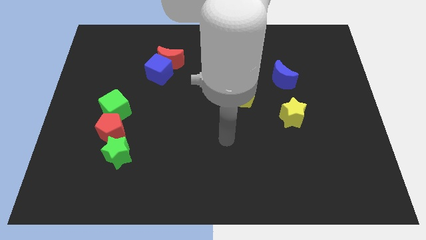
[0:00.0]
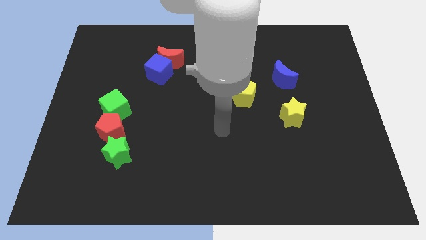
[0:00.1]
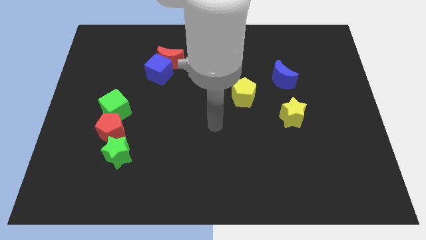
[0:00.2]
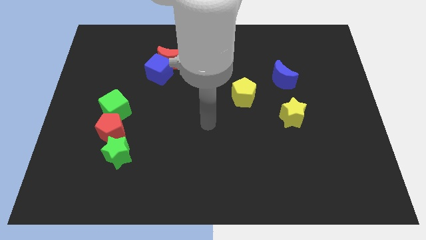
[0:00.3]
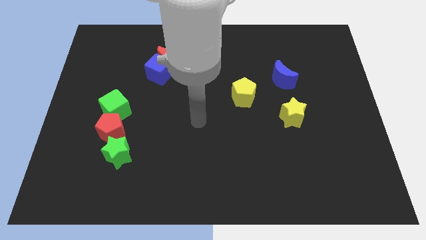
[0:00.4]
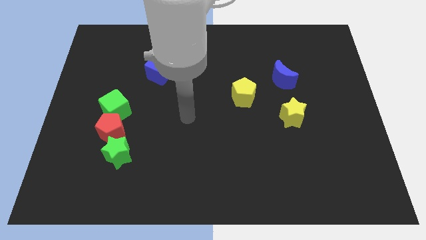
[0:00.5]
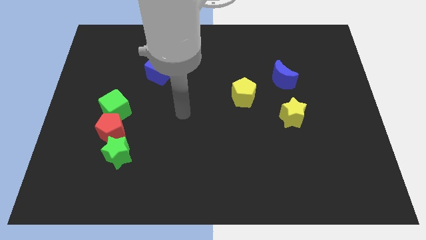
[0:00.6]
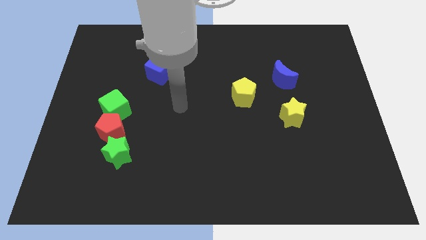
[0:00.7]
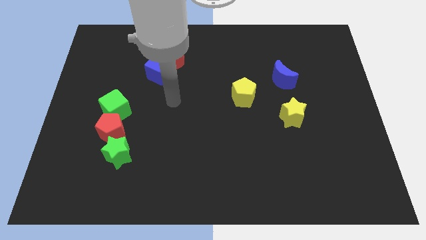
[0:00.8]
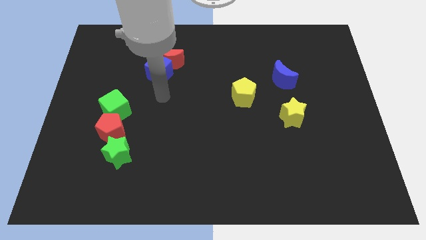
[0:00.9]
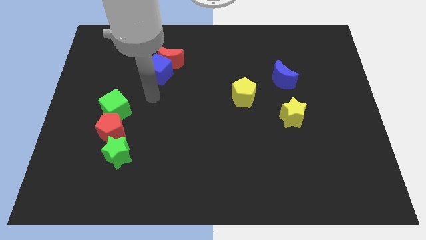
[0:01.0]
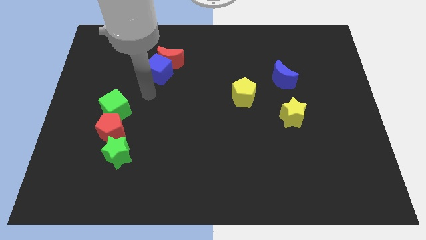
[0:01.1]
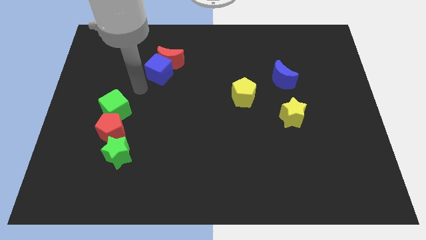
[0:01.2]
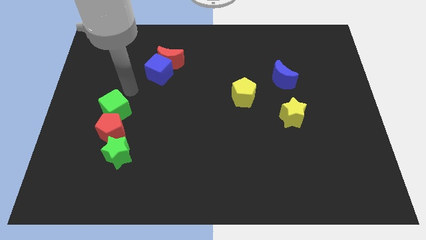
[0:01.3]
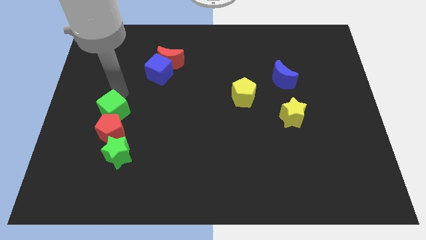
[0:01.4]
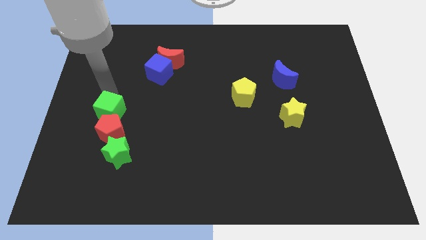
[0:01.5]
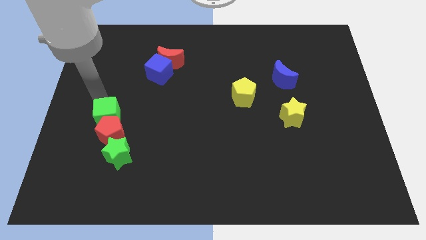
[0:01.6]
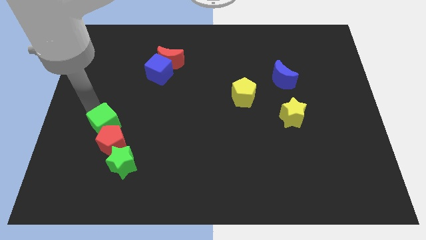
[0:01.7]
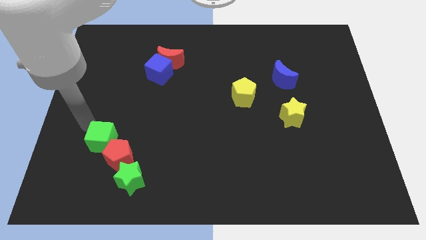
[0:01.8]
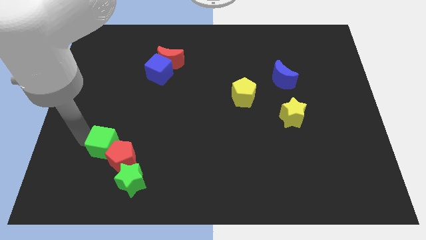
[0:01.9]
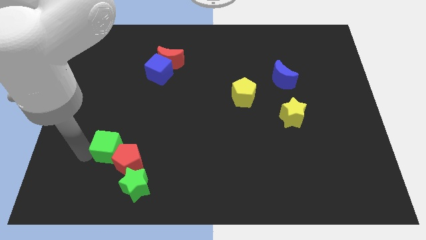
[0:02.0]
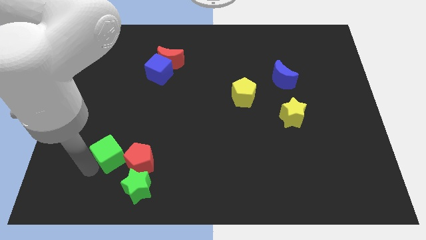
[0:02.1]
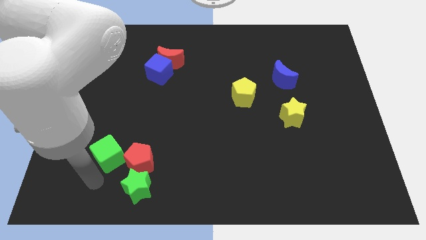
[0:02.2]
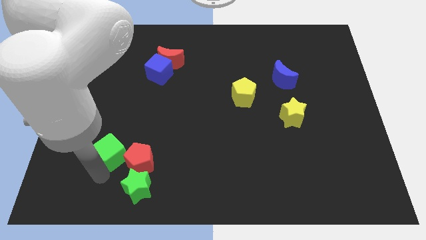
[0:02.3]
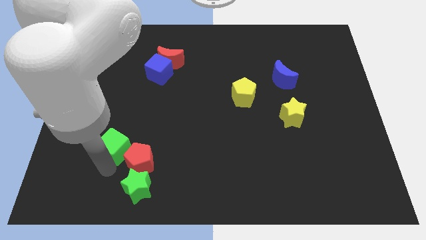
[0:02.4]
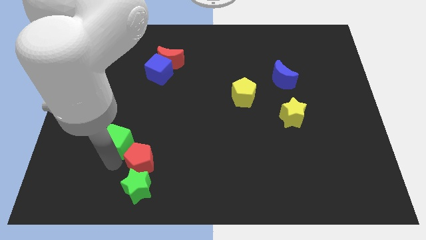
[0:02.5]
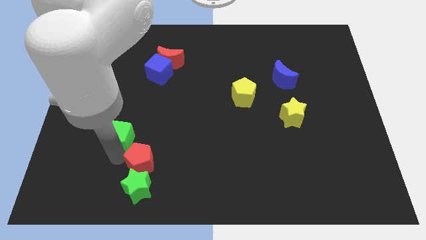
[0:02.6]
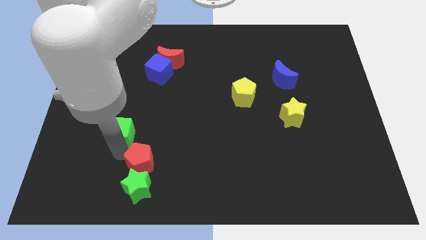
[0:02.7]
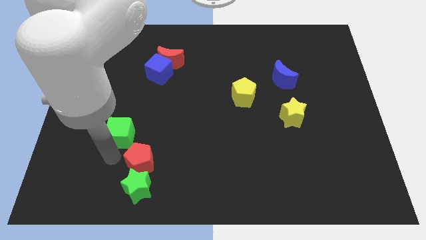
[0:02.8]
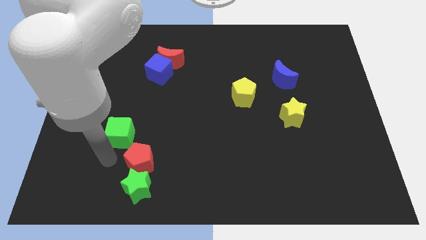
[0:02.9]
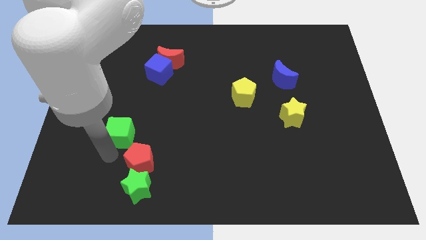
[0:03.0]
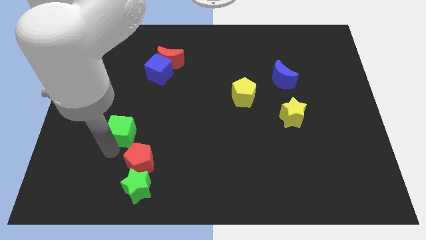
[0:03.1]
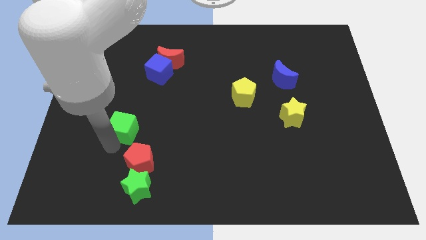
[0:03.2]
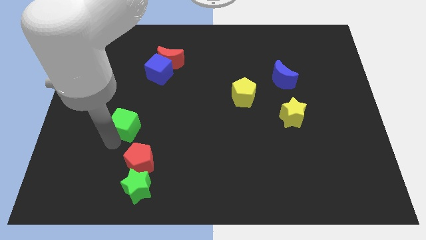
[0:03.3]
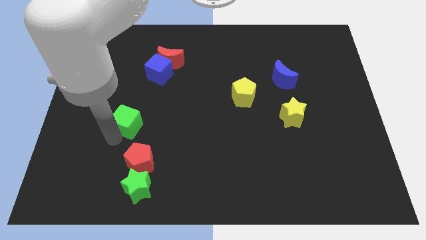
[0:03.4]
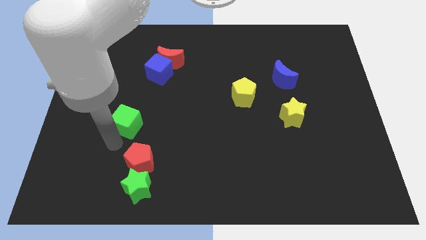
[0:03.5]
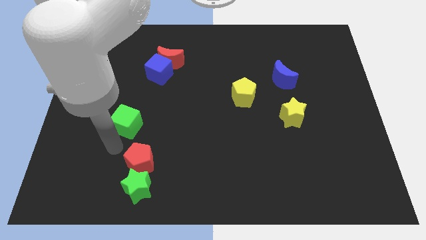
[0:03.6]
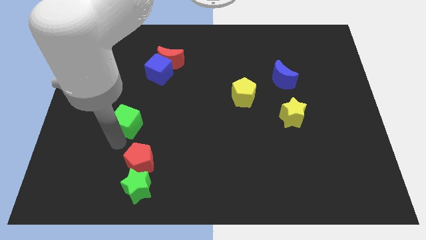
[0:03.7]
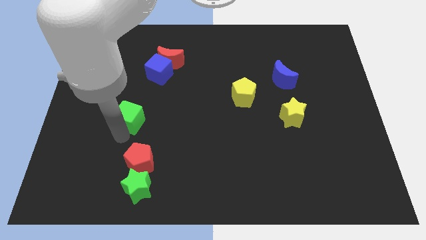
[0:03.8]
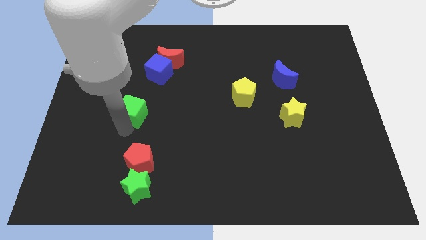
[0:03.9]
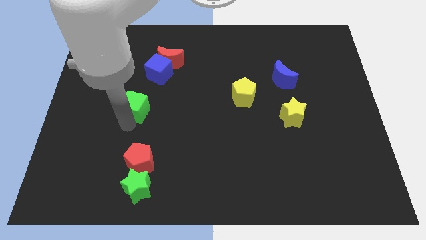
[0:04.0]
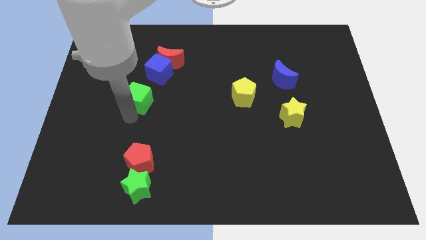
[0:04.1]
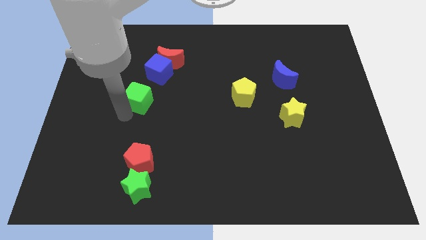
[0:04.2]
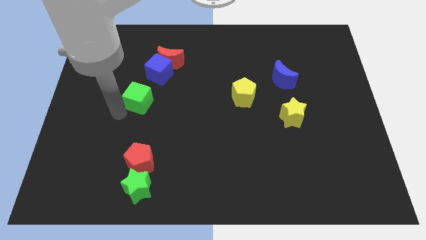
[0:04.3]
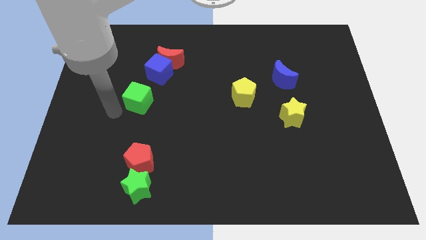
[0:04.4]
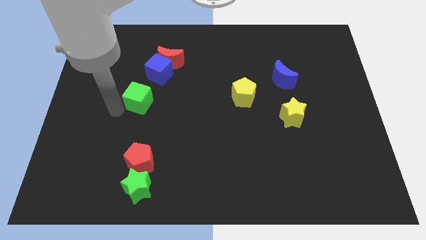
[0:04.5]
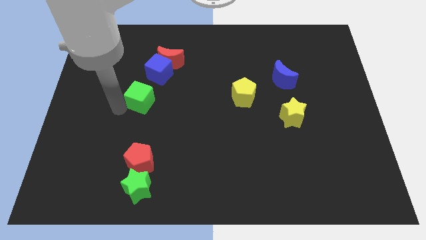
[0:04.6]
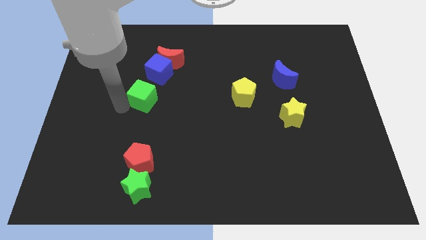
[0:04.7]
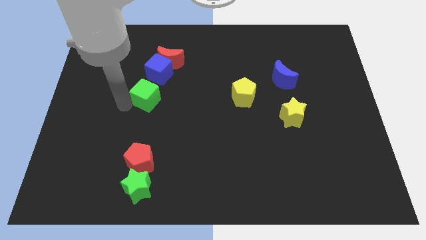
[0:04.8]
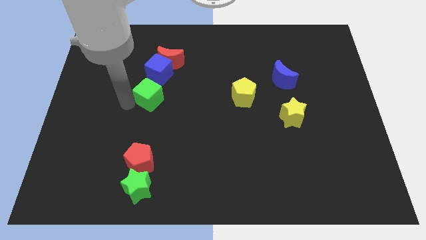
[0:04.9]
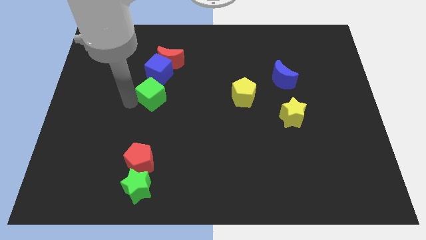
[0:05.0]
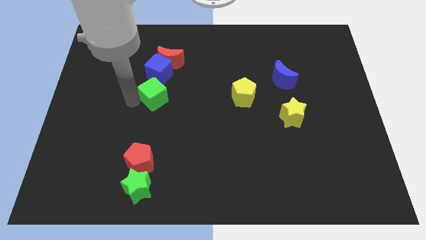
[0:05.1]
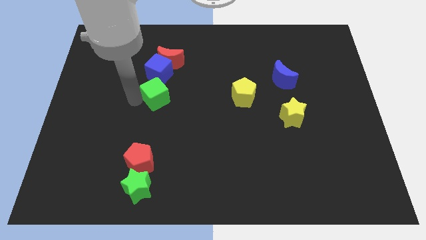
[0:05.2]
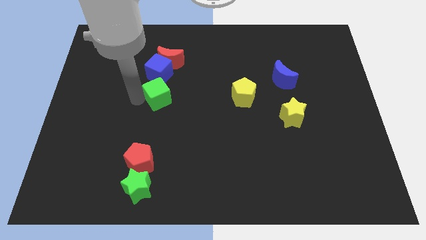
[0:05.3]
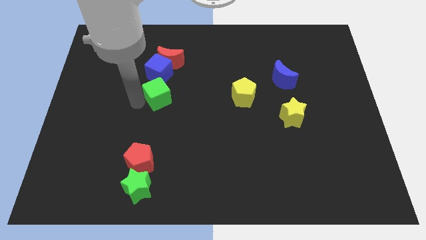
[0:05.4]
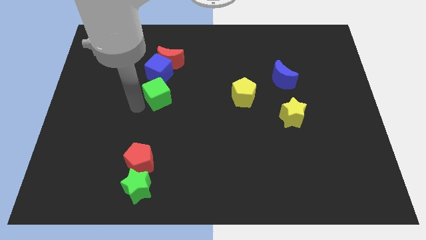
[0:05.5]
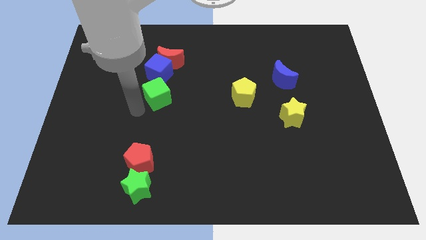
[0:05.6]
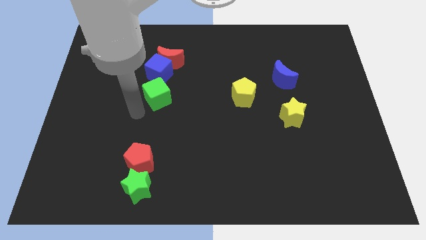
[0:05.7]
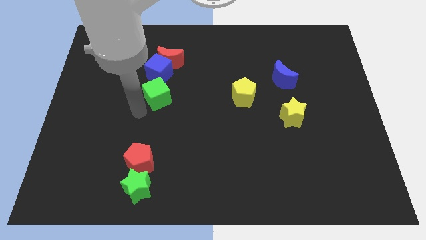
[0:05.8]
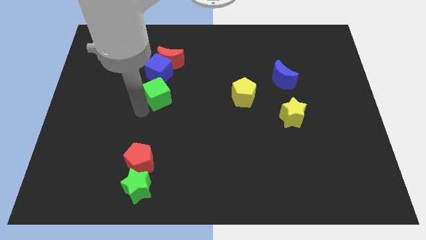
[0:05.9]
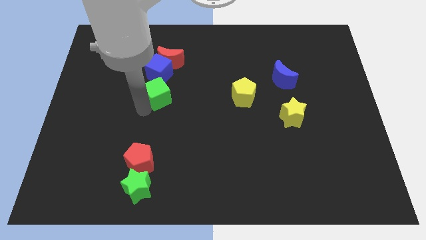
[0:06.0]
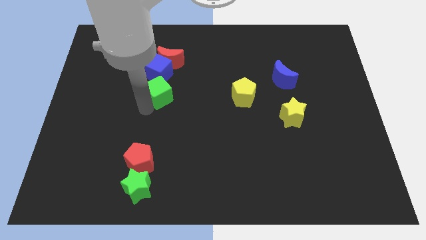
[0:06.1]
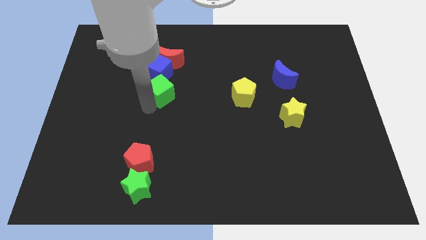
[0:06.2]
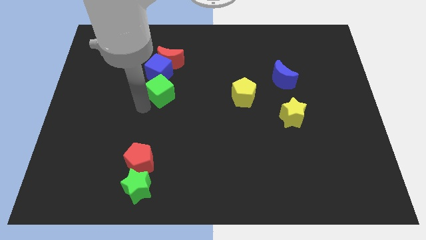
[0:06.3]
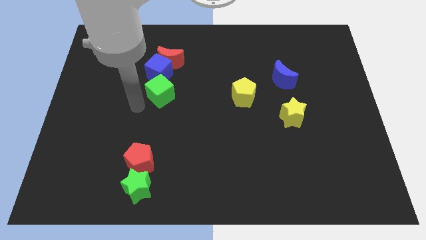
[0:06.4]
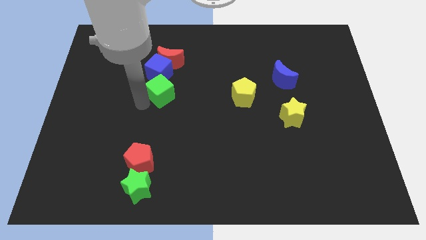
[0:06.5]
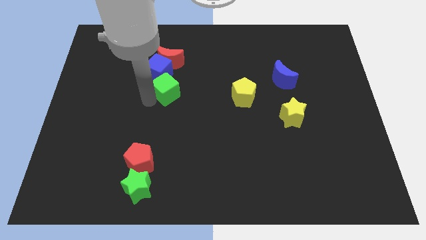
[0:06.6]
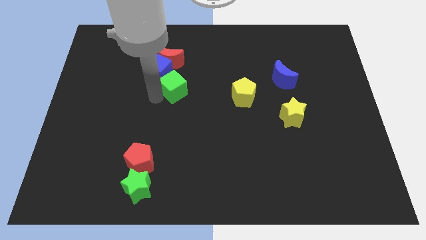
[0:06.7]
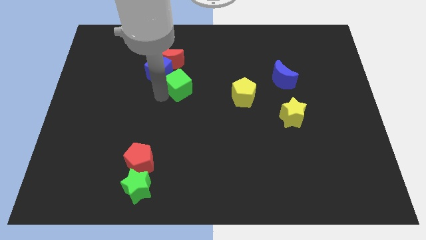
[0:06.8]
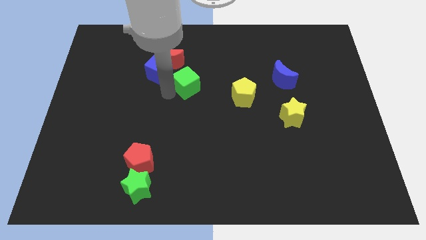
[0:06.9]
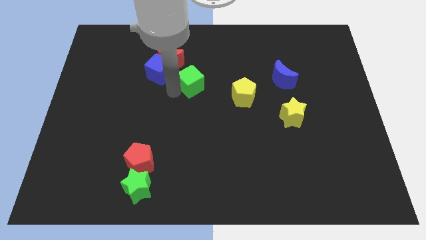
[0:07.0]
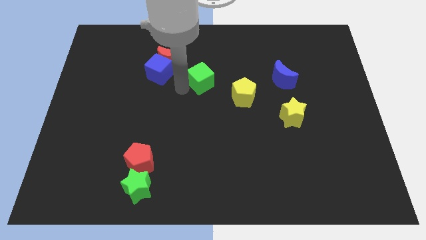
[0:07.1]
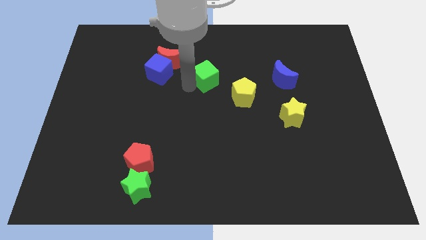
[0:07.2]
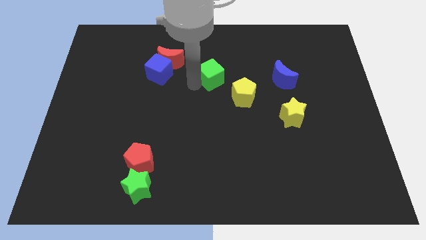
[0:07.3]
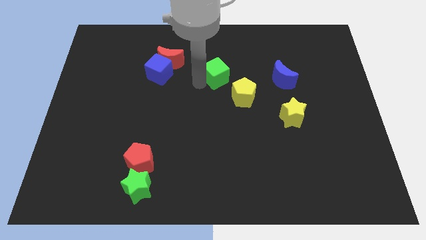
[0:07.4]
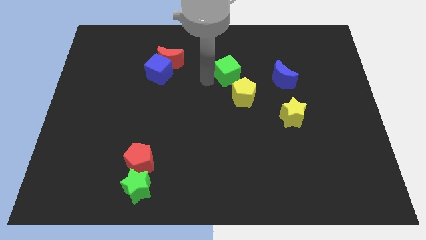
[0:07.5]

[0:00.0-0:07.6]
put the green cube above the yellow pentagon
